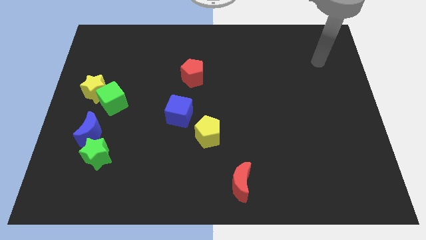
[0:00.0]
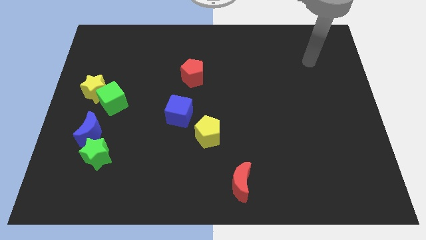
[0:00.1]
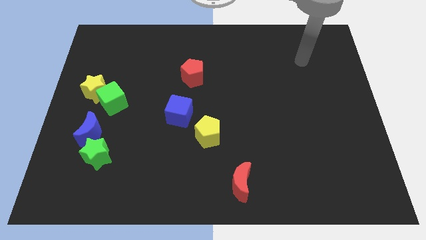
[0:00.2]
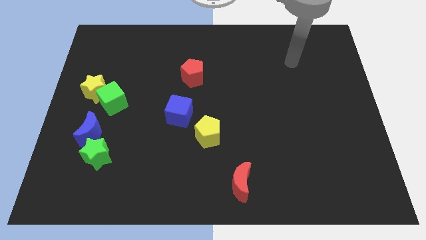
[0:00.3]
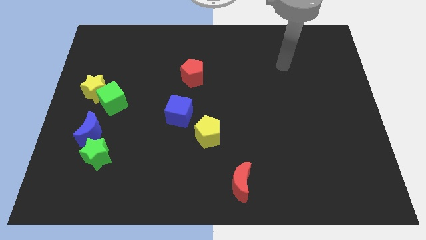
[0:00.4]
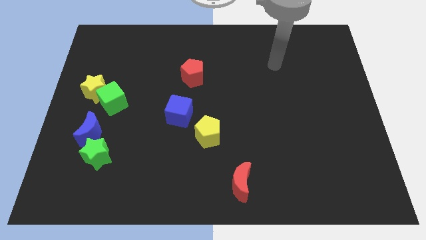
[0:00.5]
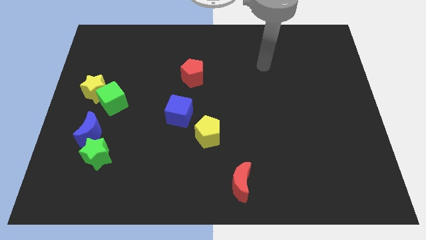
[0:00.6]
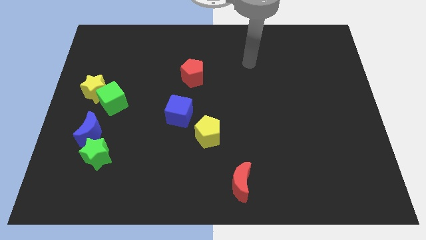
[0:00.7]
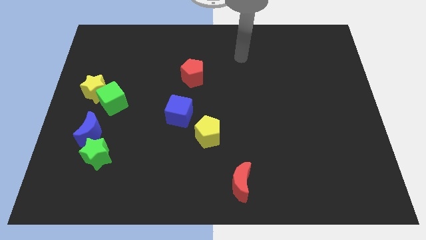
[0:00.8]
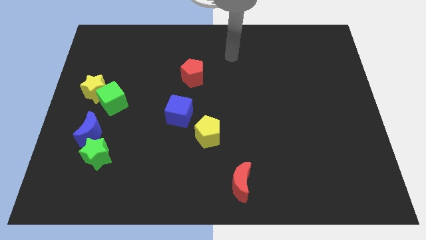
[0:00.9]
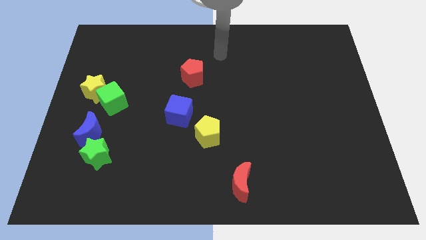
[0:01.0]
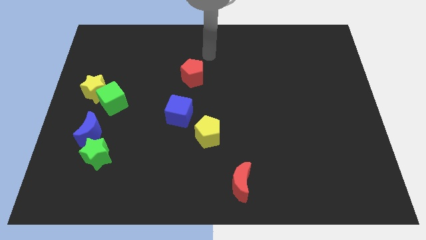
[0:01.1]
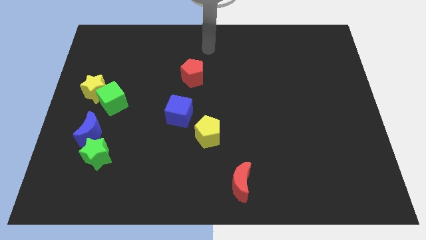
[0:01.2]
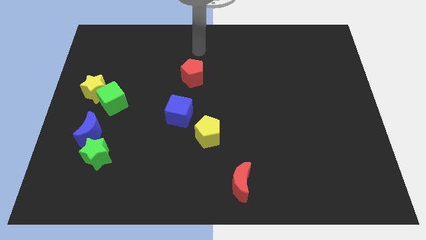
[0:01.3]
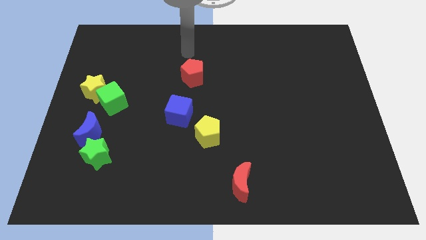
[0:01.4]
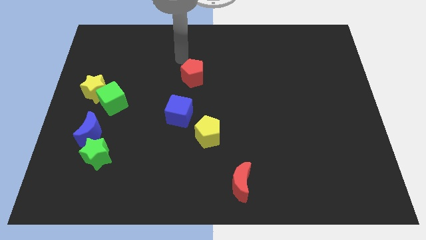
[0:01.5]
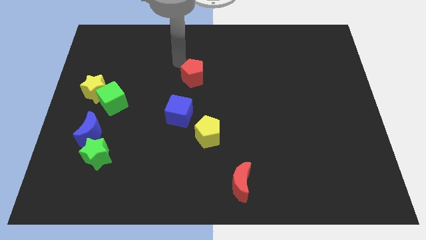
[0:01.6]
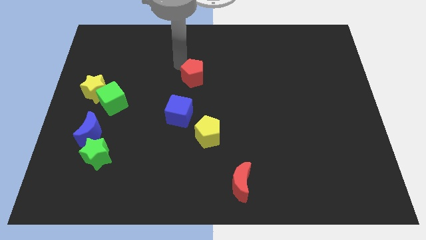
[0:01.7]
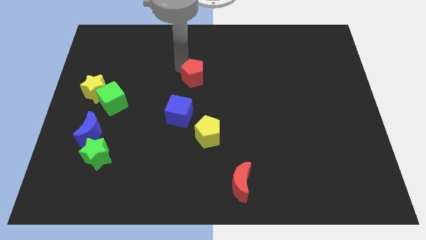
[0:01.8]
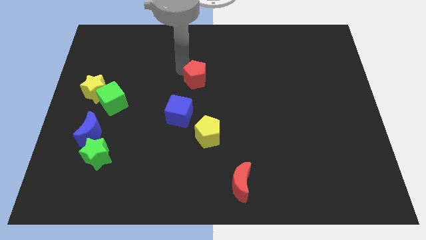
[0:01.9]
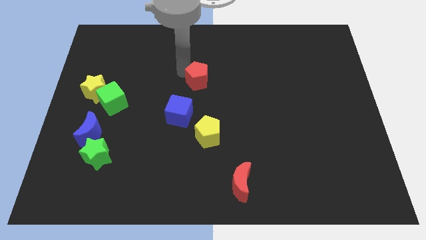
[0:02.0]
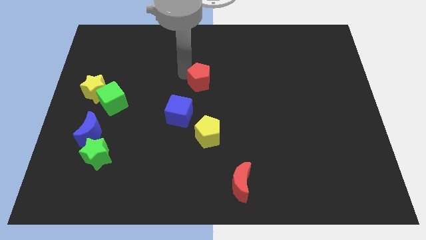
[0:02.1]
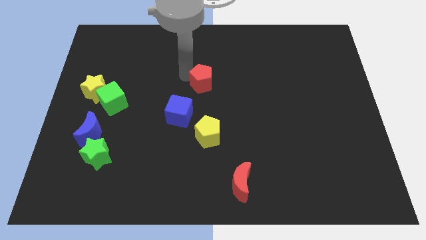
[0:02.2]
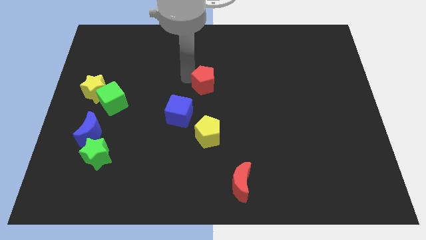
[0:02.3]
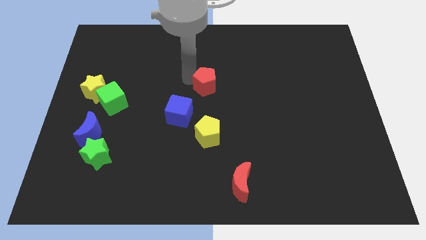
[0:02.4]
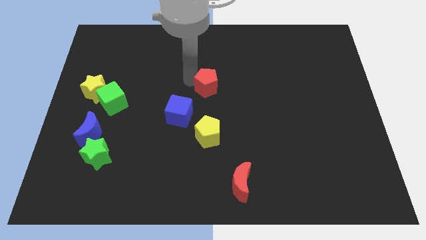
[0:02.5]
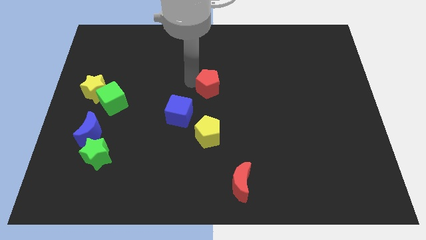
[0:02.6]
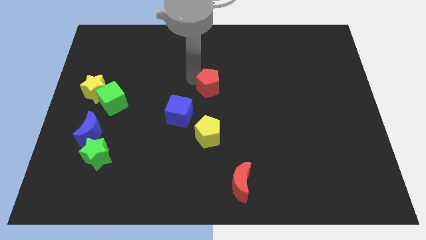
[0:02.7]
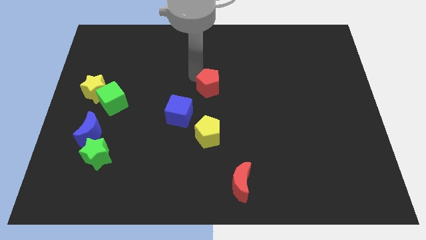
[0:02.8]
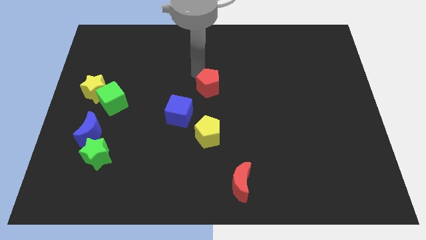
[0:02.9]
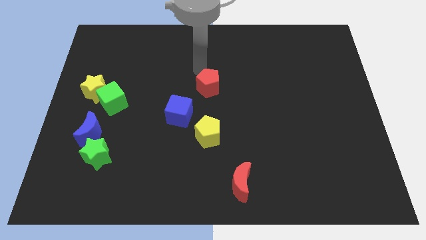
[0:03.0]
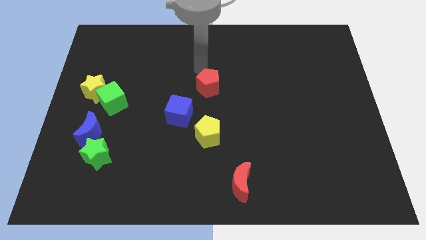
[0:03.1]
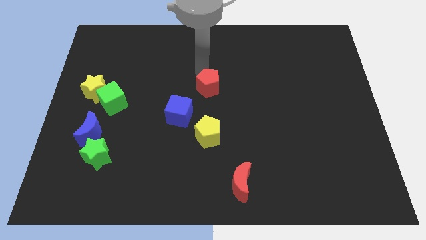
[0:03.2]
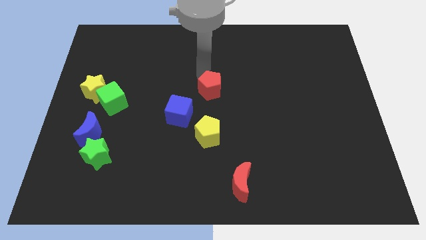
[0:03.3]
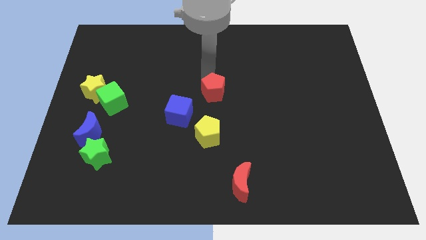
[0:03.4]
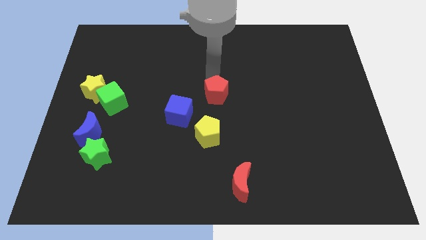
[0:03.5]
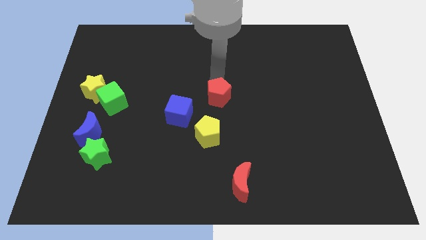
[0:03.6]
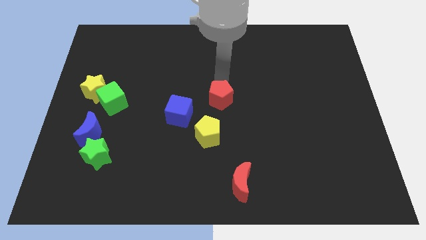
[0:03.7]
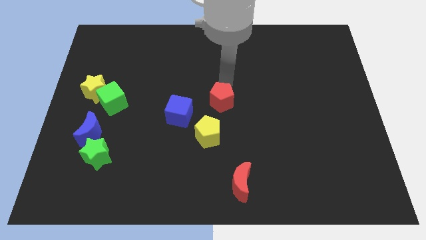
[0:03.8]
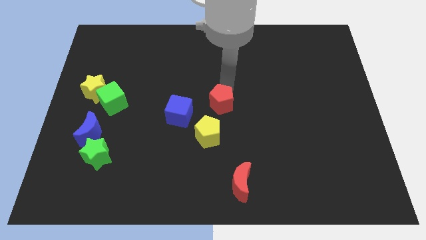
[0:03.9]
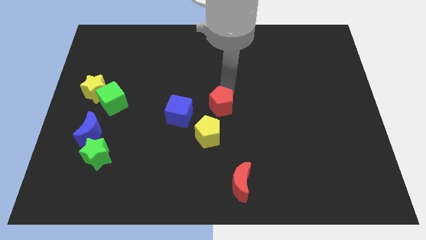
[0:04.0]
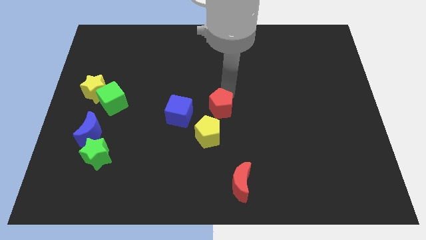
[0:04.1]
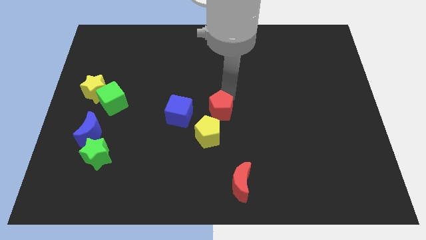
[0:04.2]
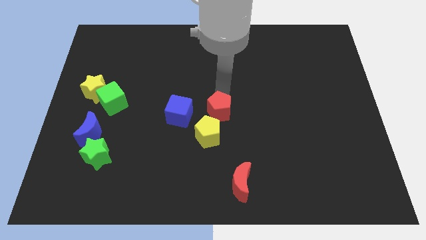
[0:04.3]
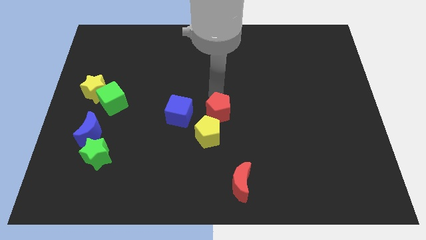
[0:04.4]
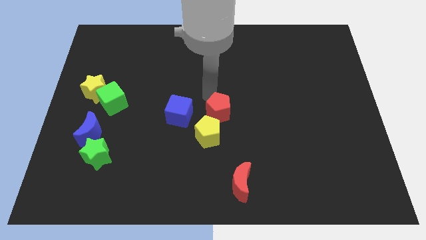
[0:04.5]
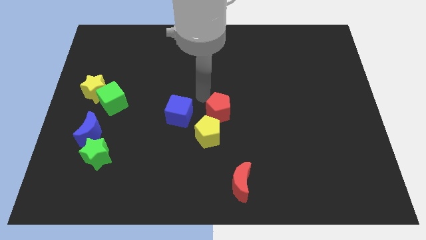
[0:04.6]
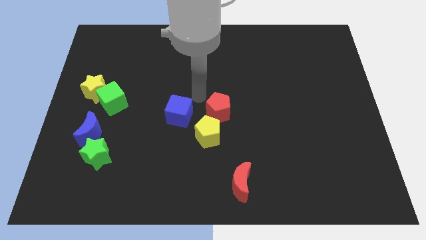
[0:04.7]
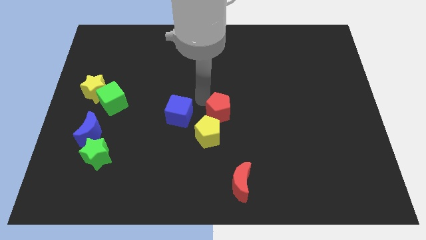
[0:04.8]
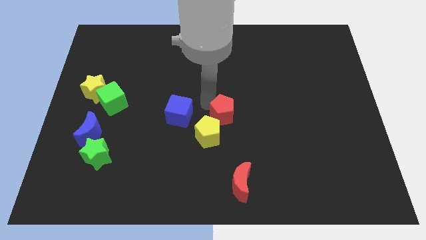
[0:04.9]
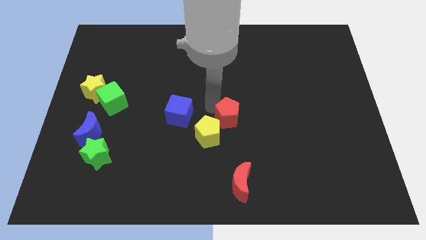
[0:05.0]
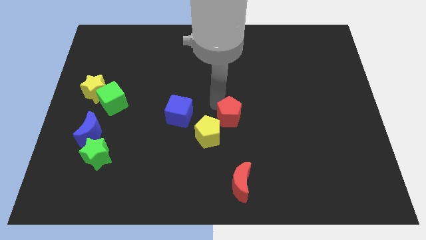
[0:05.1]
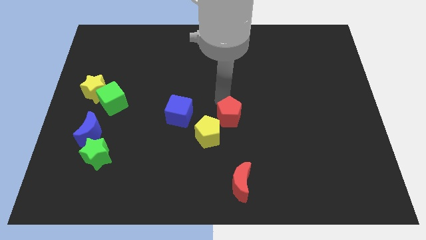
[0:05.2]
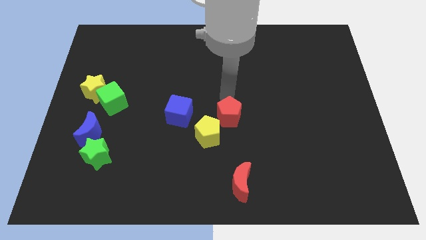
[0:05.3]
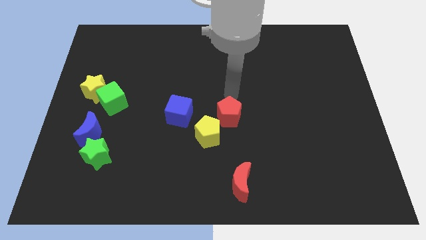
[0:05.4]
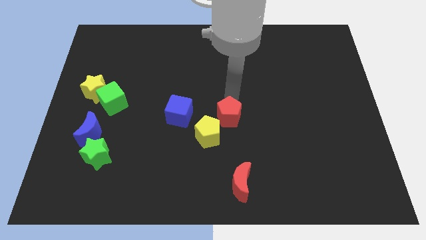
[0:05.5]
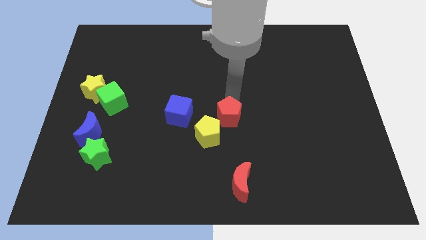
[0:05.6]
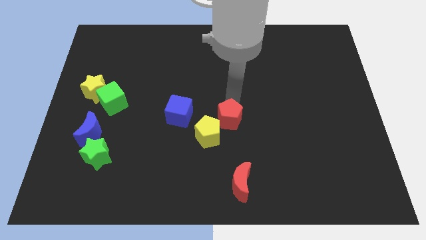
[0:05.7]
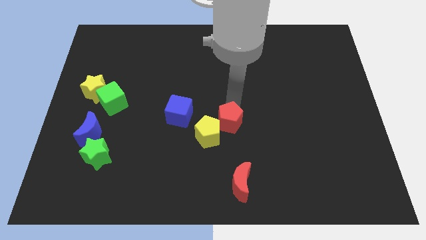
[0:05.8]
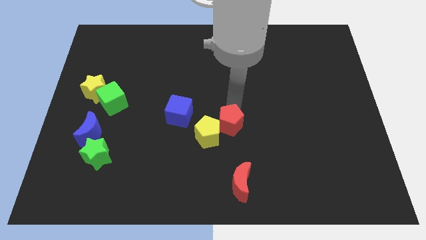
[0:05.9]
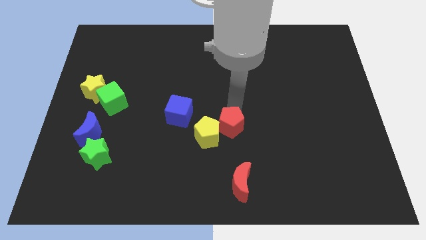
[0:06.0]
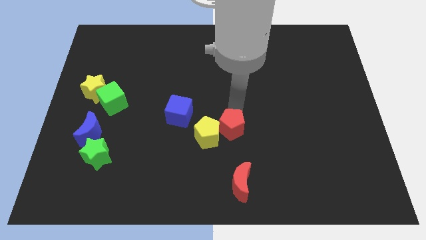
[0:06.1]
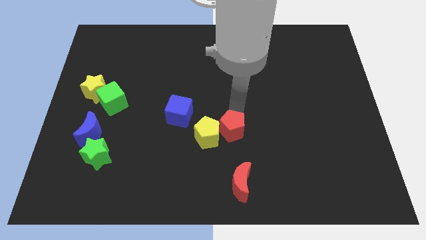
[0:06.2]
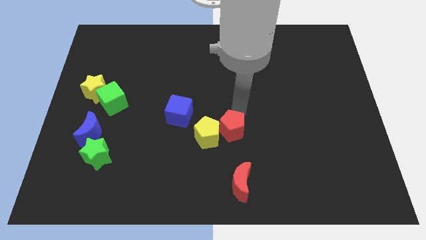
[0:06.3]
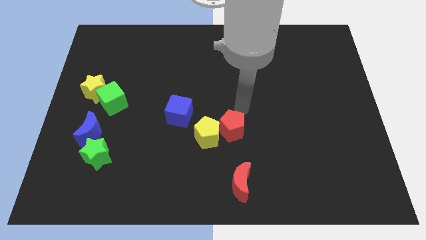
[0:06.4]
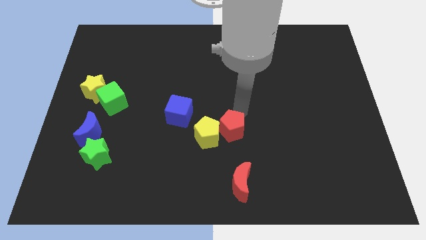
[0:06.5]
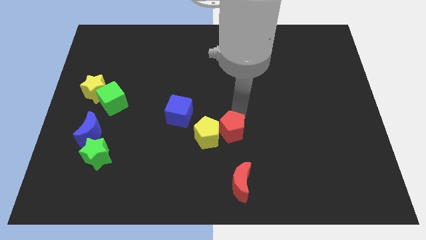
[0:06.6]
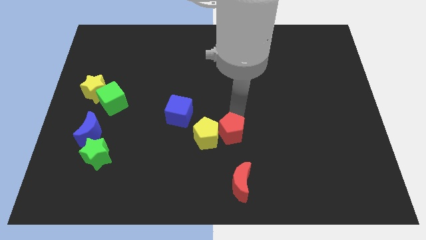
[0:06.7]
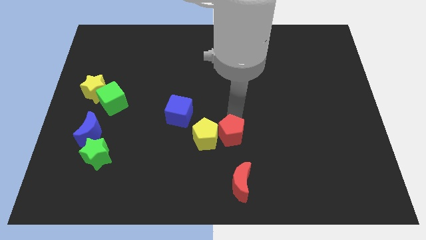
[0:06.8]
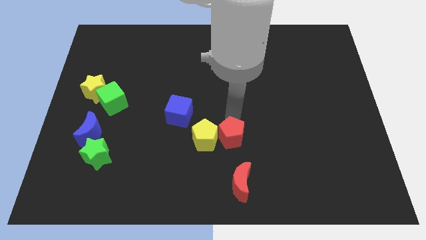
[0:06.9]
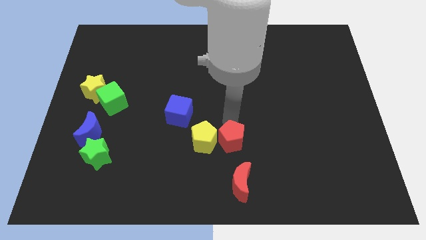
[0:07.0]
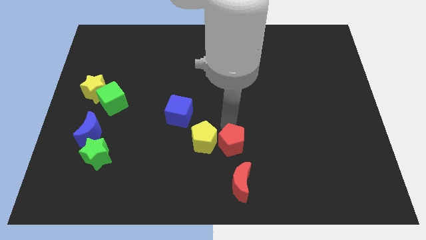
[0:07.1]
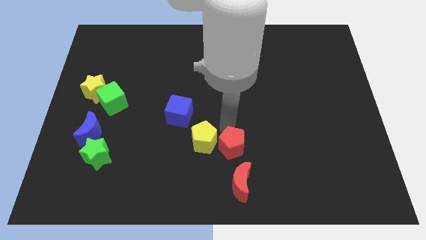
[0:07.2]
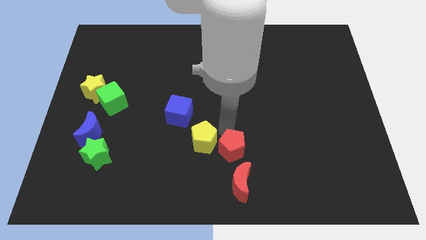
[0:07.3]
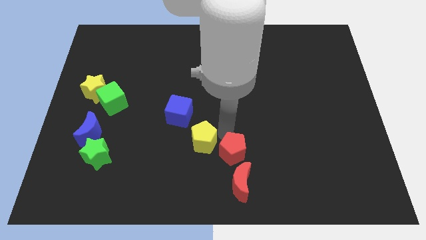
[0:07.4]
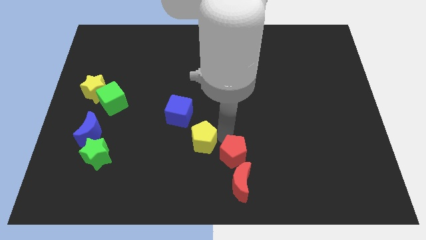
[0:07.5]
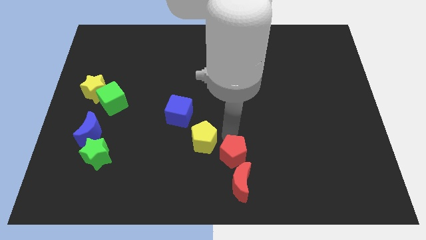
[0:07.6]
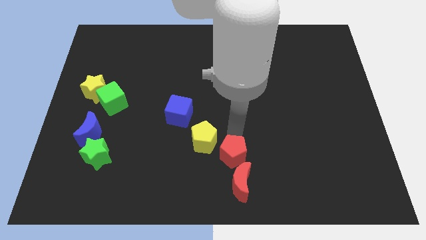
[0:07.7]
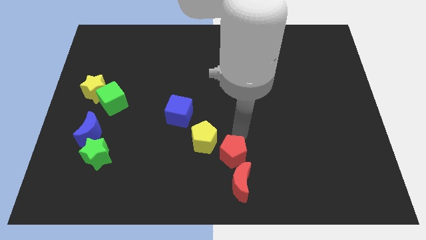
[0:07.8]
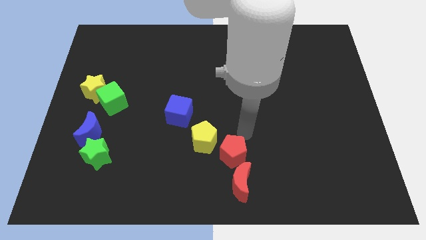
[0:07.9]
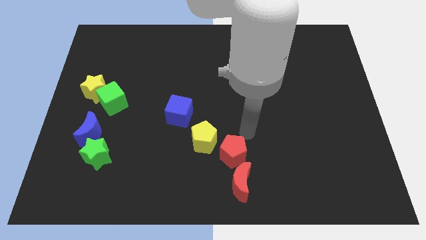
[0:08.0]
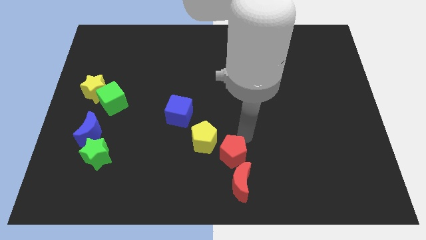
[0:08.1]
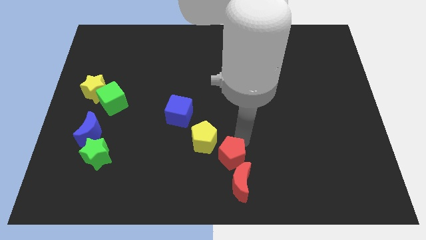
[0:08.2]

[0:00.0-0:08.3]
move the red pentagon to the bottom
